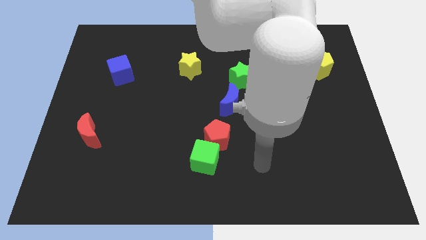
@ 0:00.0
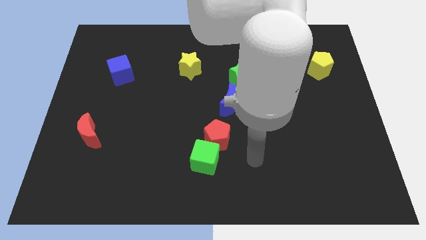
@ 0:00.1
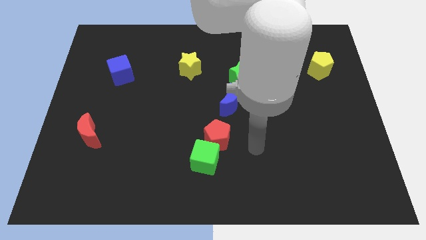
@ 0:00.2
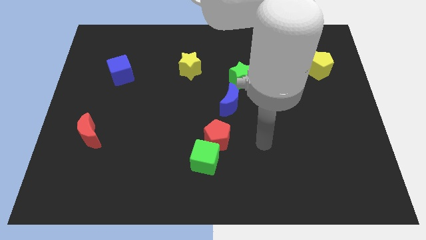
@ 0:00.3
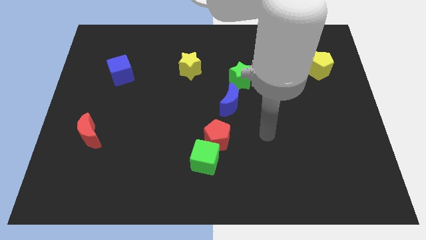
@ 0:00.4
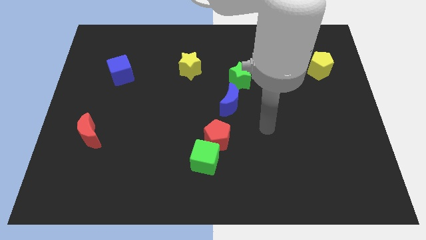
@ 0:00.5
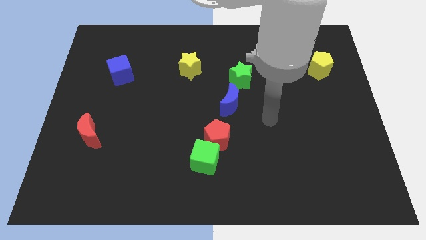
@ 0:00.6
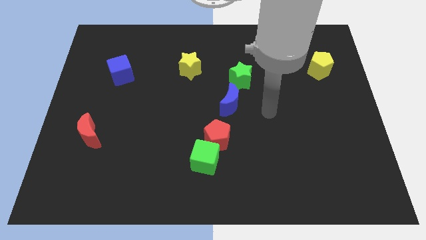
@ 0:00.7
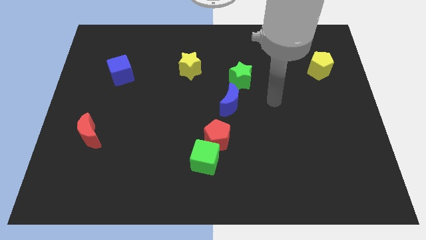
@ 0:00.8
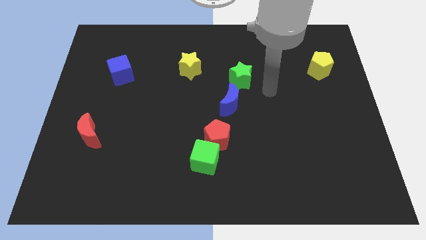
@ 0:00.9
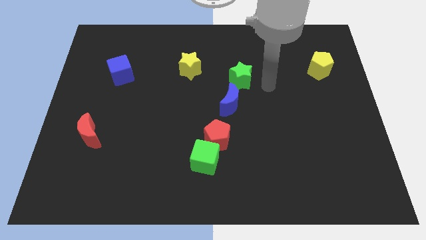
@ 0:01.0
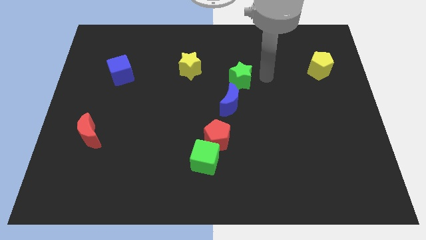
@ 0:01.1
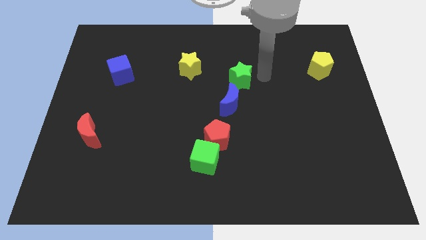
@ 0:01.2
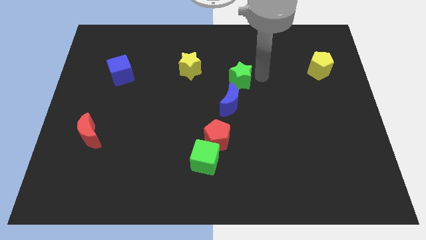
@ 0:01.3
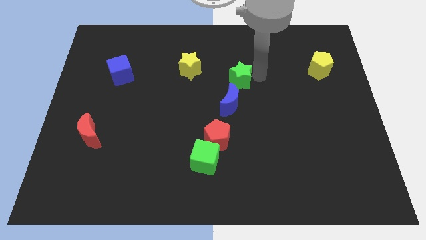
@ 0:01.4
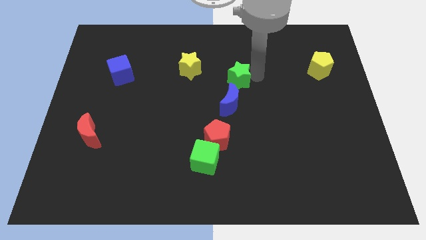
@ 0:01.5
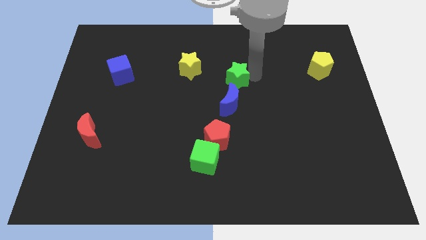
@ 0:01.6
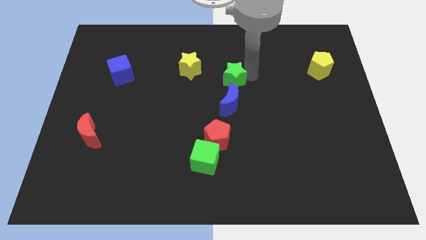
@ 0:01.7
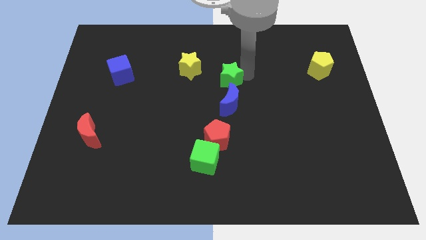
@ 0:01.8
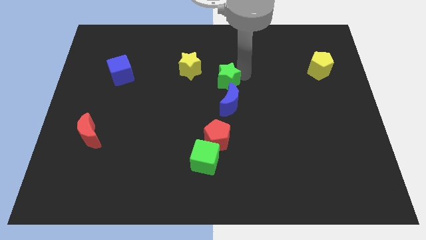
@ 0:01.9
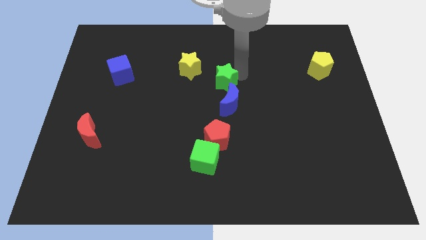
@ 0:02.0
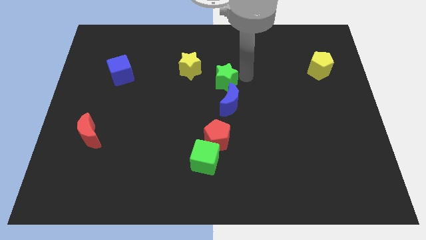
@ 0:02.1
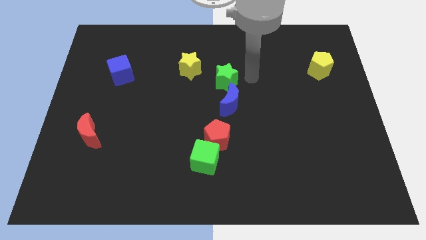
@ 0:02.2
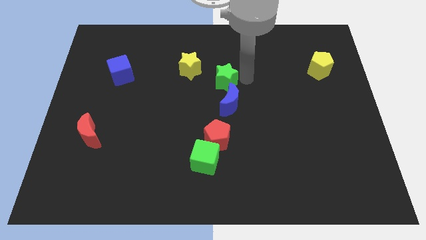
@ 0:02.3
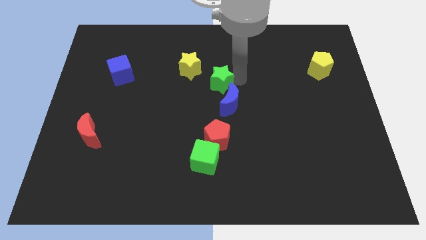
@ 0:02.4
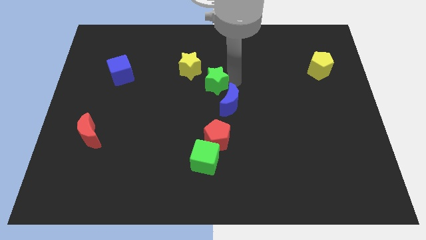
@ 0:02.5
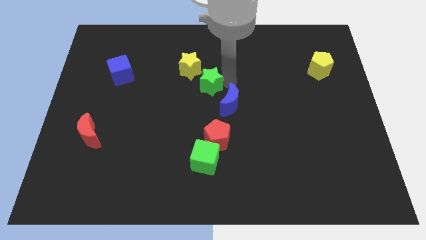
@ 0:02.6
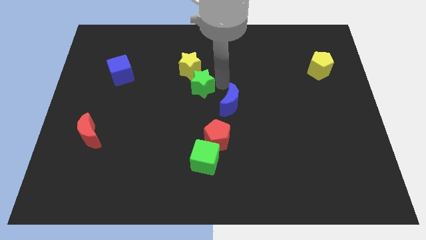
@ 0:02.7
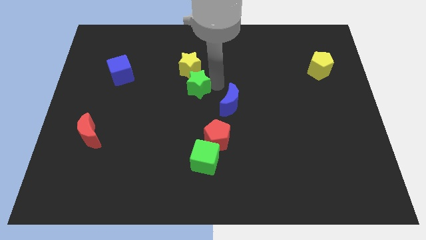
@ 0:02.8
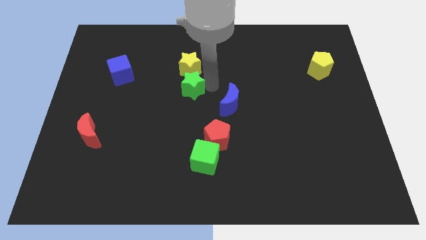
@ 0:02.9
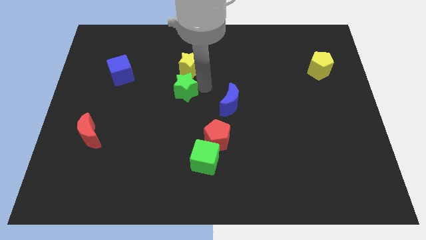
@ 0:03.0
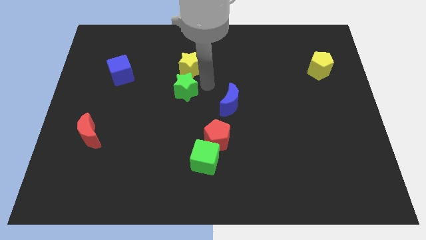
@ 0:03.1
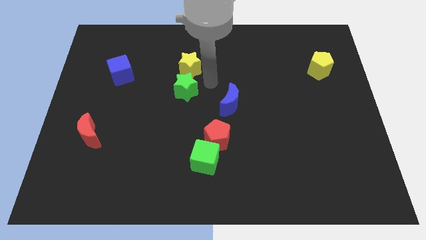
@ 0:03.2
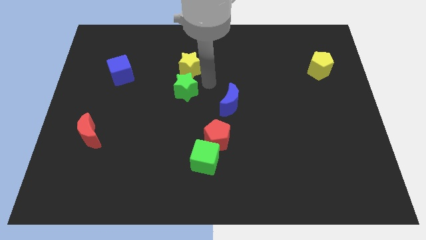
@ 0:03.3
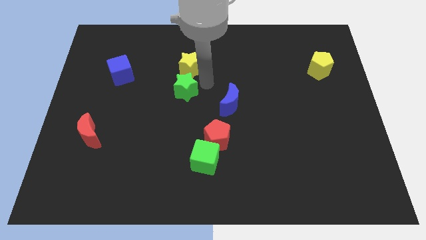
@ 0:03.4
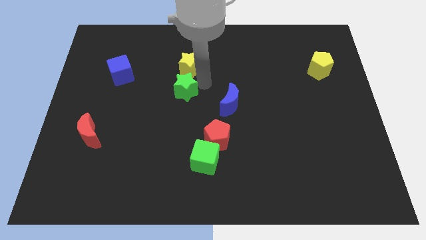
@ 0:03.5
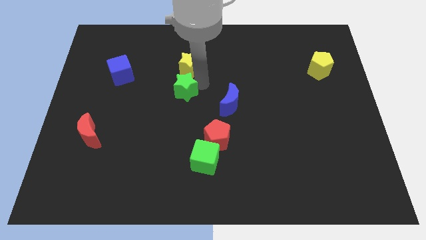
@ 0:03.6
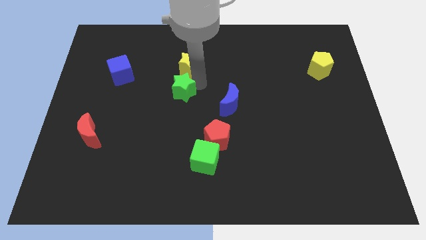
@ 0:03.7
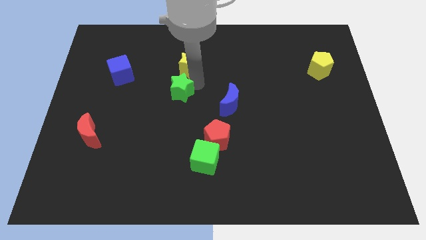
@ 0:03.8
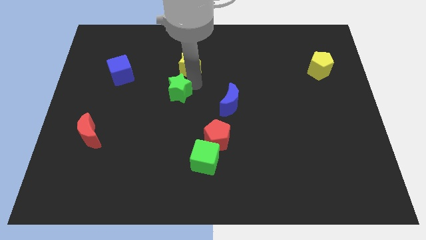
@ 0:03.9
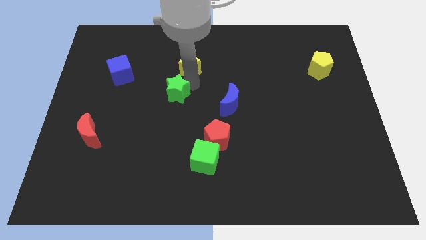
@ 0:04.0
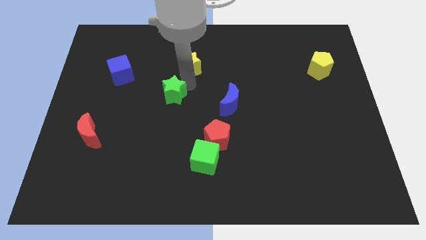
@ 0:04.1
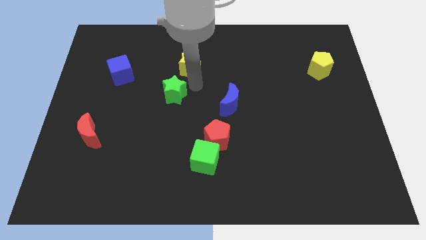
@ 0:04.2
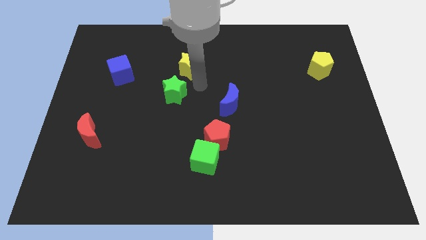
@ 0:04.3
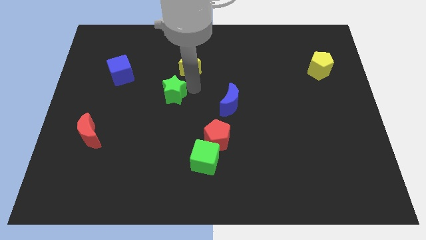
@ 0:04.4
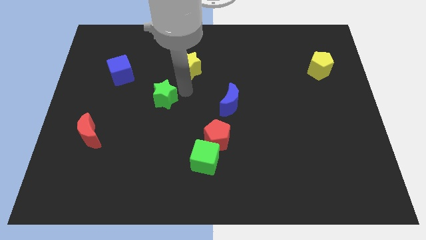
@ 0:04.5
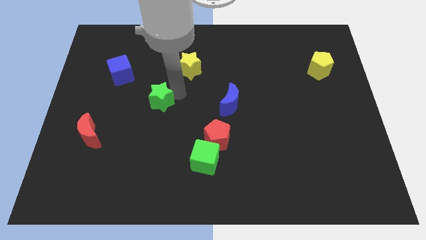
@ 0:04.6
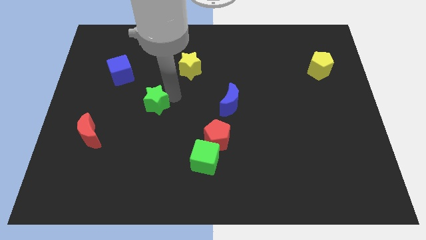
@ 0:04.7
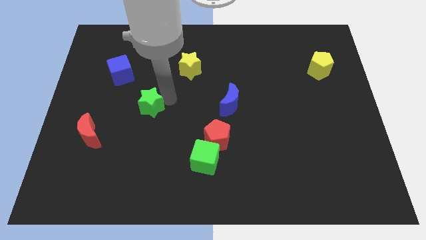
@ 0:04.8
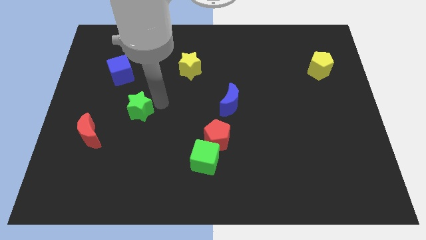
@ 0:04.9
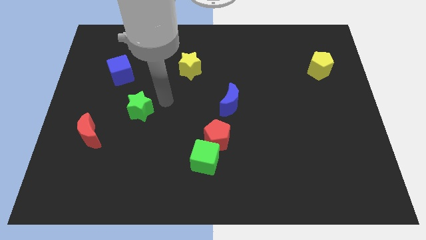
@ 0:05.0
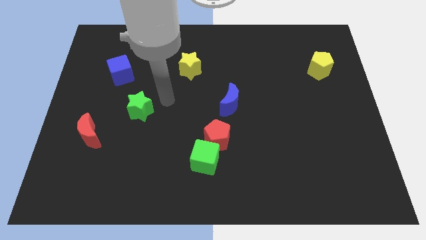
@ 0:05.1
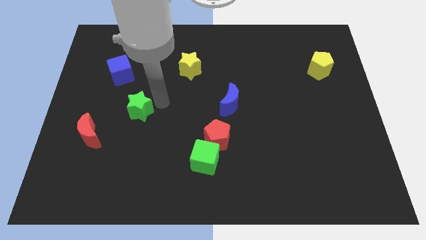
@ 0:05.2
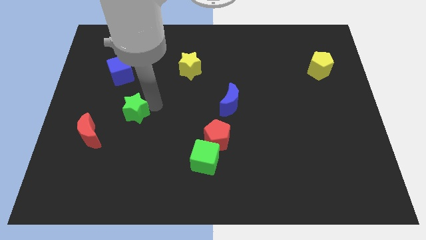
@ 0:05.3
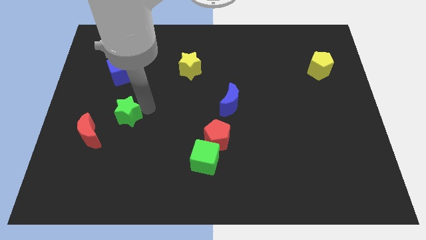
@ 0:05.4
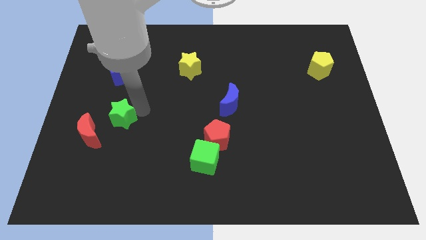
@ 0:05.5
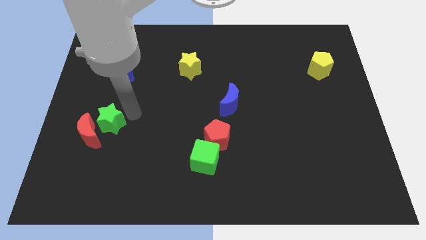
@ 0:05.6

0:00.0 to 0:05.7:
put the green star next to the red moon

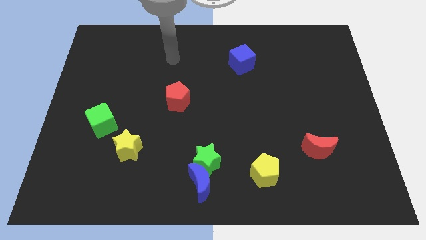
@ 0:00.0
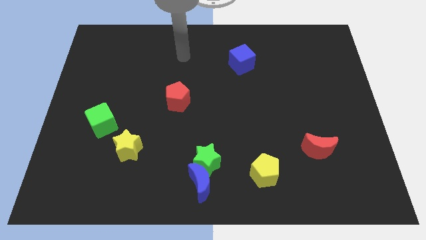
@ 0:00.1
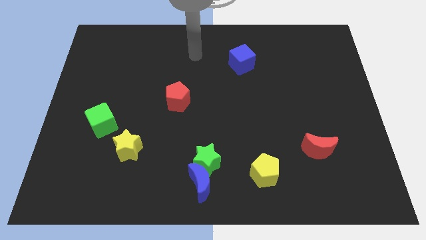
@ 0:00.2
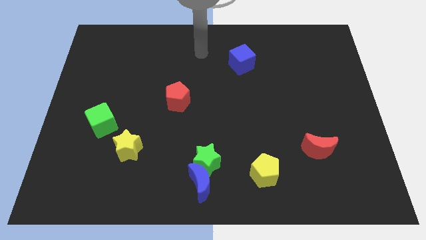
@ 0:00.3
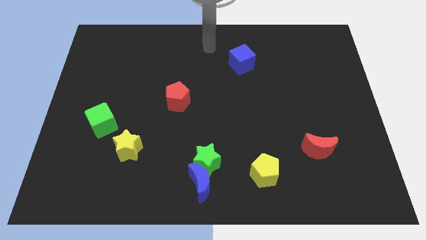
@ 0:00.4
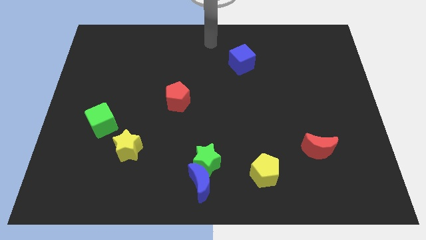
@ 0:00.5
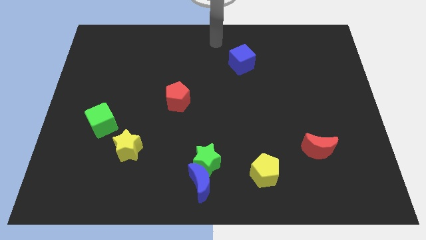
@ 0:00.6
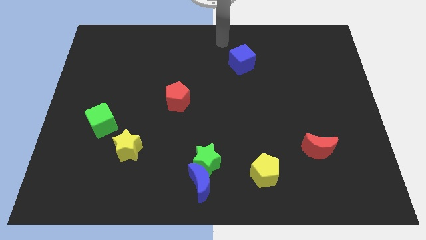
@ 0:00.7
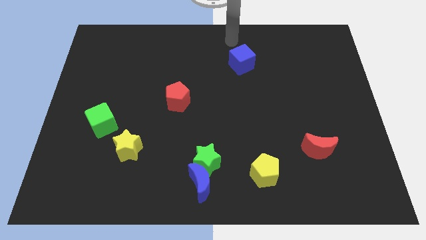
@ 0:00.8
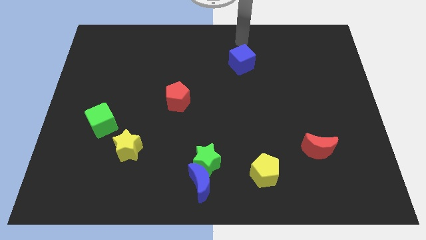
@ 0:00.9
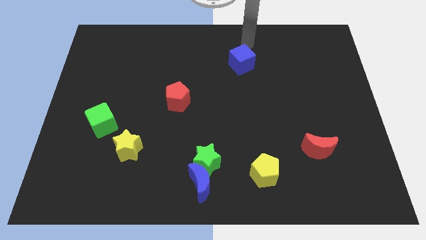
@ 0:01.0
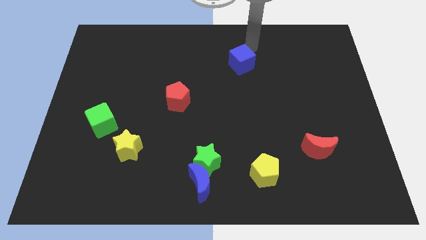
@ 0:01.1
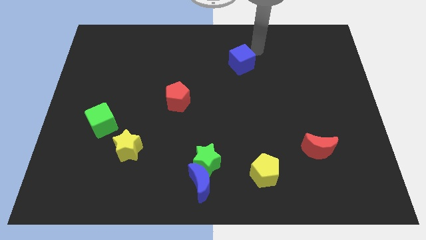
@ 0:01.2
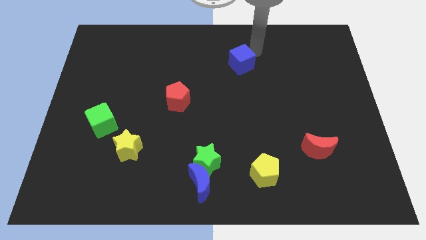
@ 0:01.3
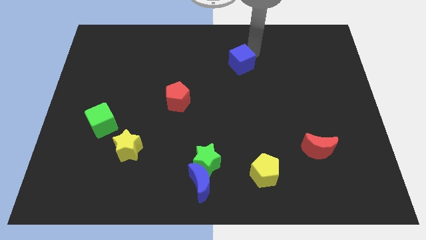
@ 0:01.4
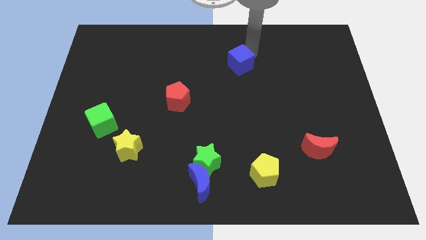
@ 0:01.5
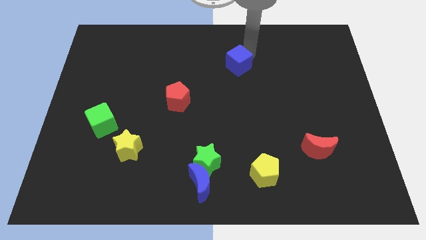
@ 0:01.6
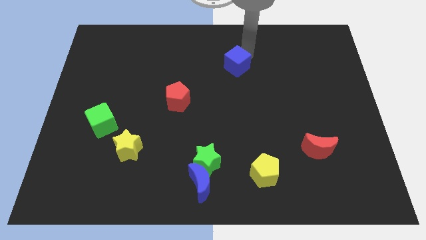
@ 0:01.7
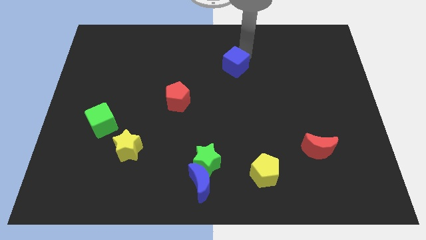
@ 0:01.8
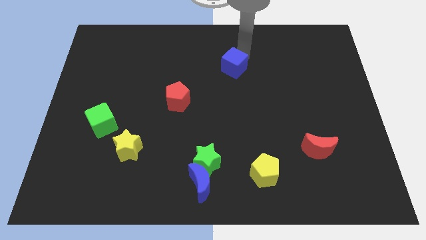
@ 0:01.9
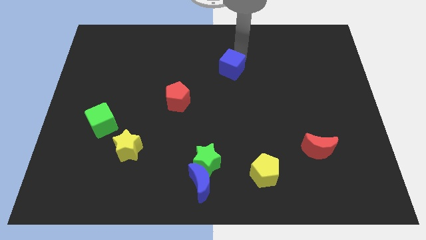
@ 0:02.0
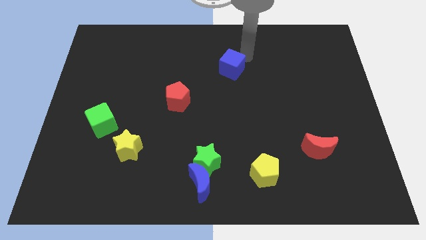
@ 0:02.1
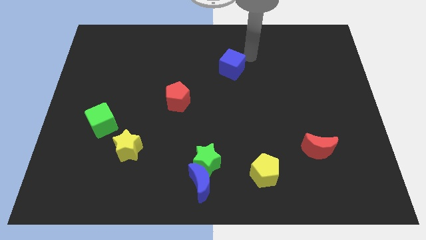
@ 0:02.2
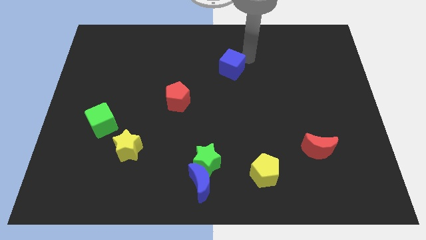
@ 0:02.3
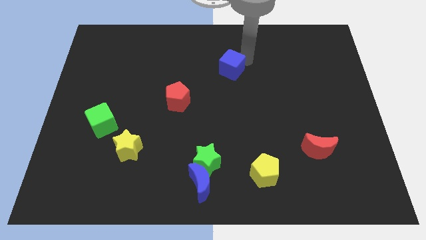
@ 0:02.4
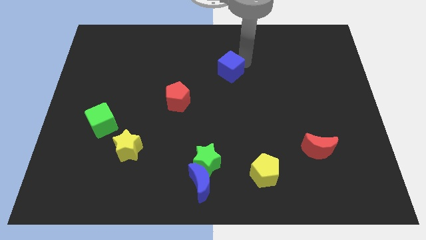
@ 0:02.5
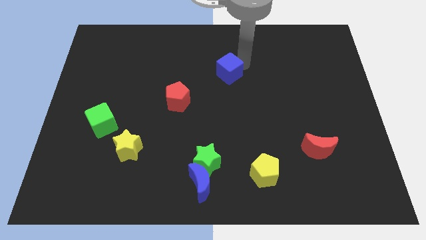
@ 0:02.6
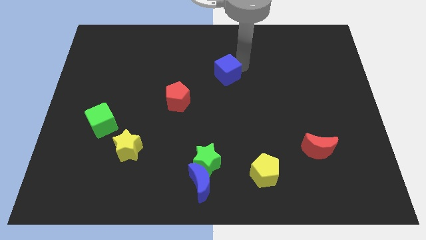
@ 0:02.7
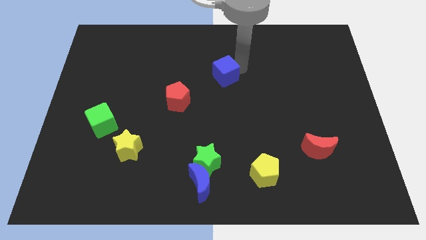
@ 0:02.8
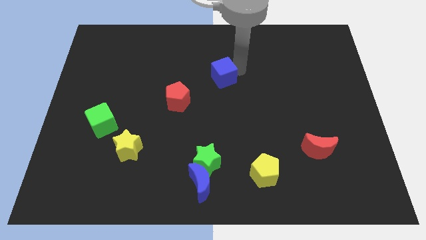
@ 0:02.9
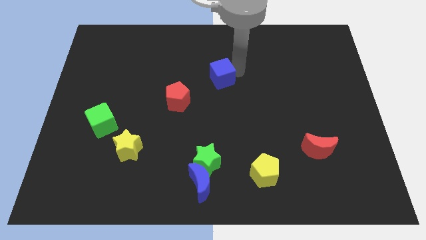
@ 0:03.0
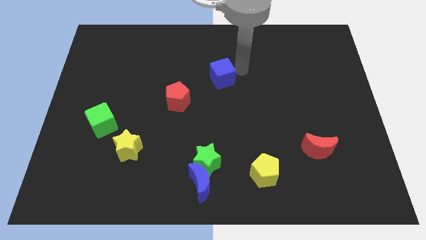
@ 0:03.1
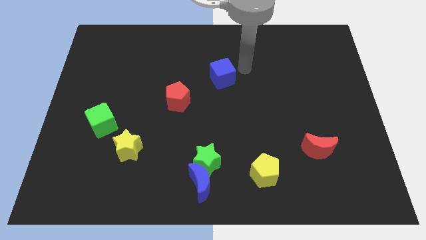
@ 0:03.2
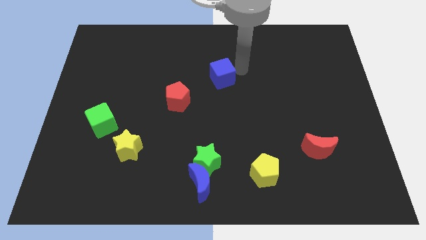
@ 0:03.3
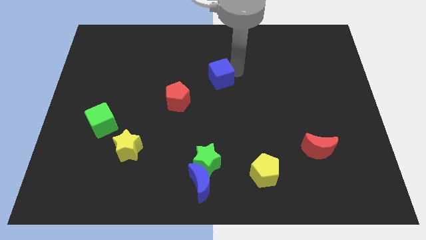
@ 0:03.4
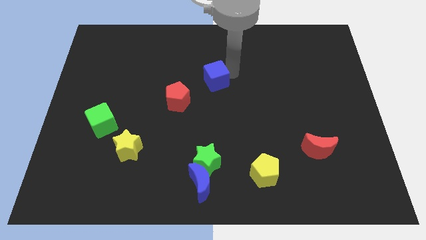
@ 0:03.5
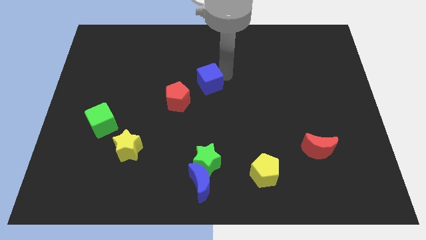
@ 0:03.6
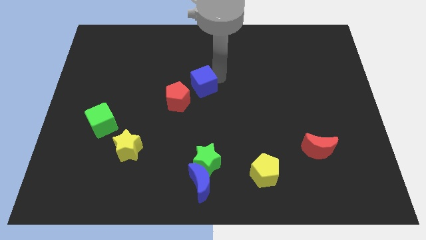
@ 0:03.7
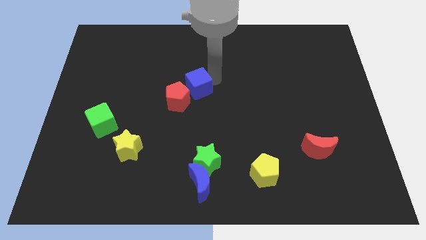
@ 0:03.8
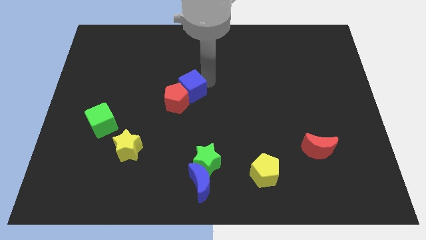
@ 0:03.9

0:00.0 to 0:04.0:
move the blue cube next to the red pentagon
